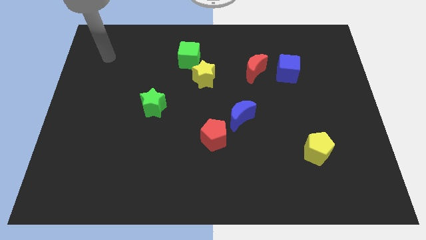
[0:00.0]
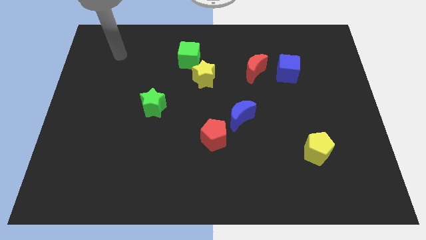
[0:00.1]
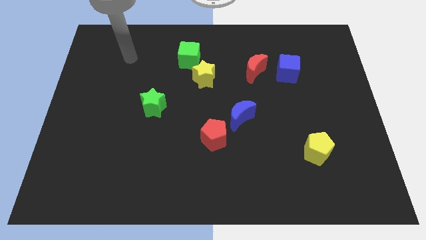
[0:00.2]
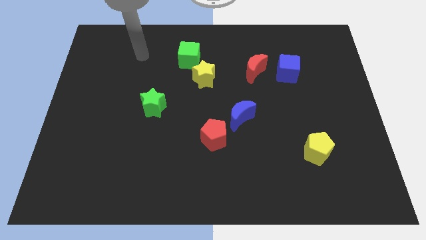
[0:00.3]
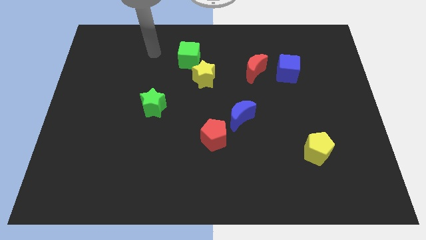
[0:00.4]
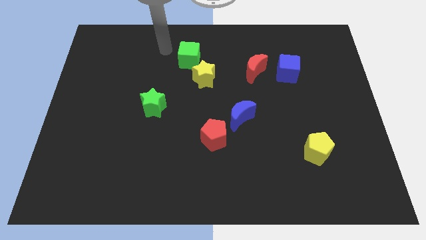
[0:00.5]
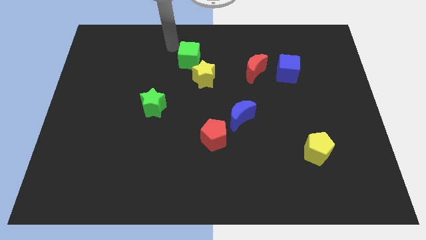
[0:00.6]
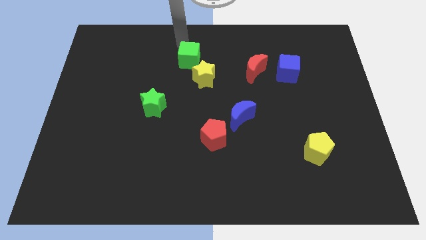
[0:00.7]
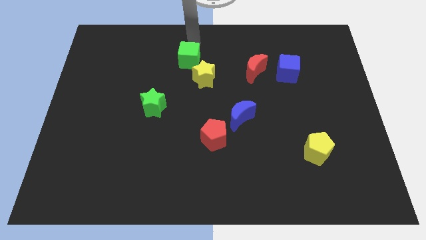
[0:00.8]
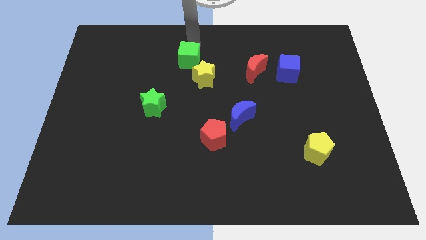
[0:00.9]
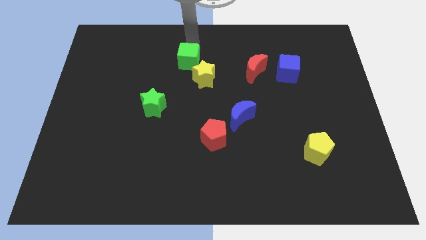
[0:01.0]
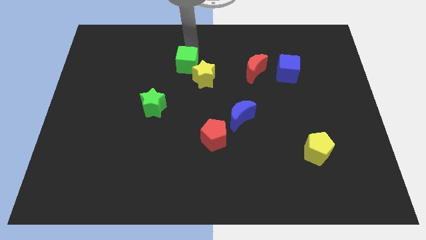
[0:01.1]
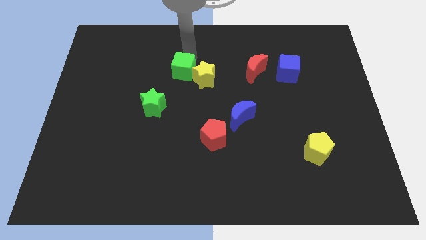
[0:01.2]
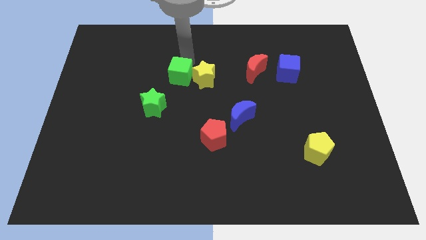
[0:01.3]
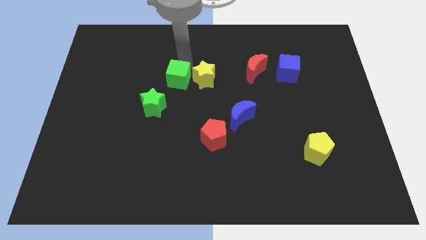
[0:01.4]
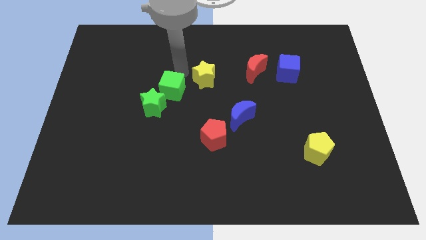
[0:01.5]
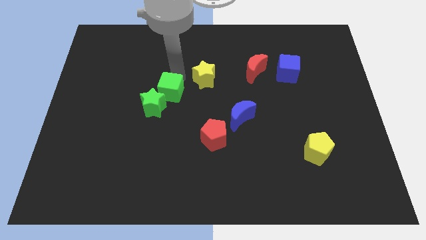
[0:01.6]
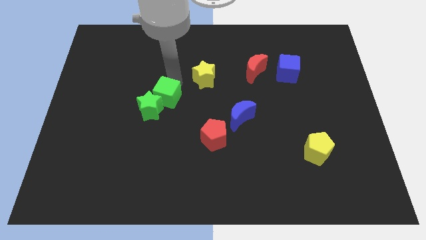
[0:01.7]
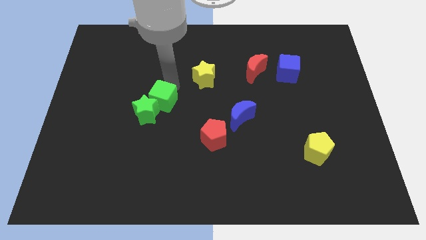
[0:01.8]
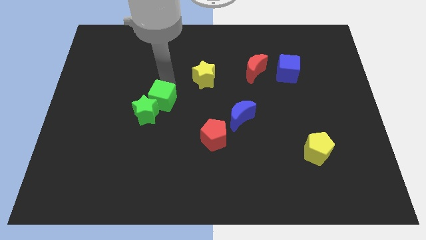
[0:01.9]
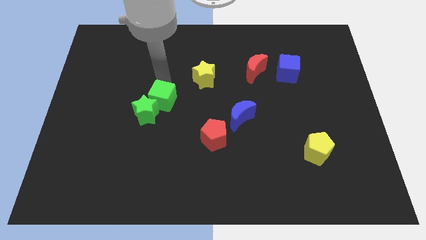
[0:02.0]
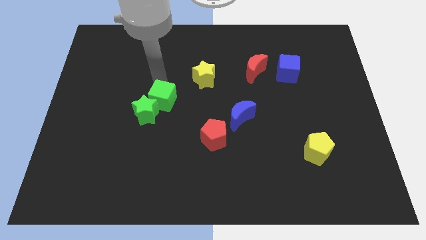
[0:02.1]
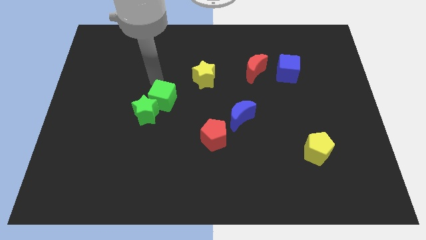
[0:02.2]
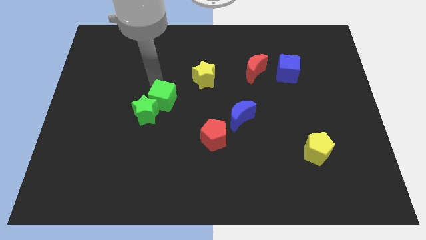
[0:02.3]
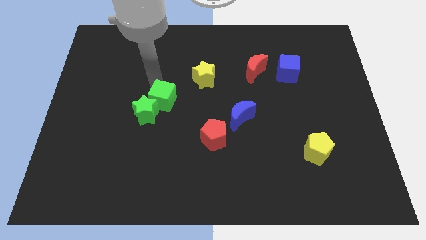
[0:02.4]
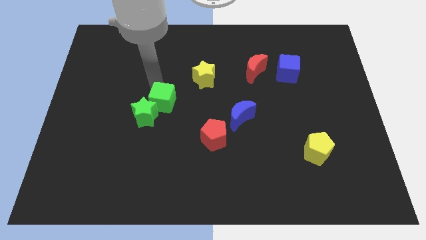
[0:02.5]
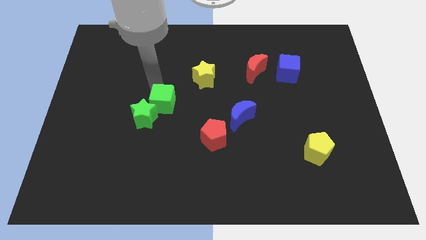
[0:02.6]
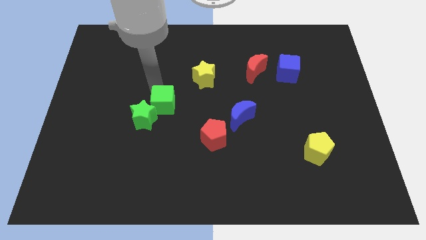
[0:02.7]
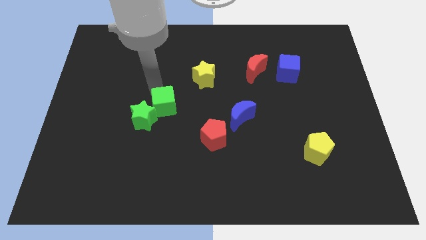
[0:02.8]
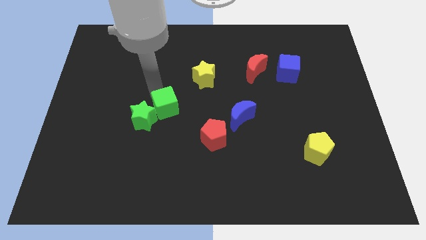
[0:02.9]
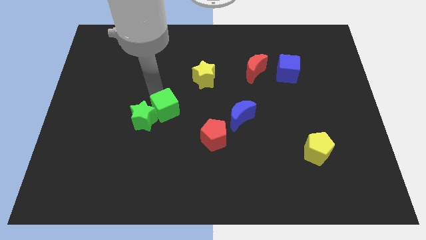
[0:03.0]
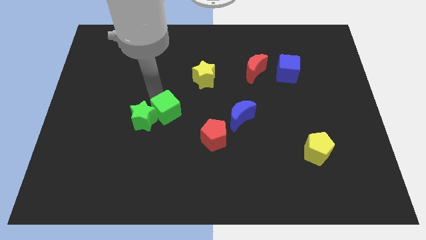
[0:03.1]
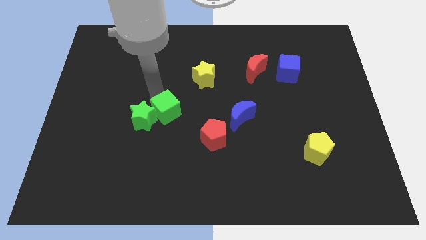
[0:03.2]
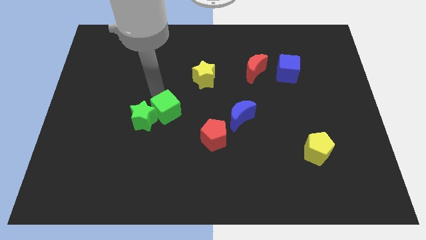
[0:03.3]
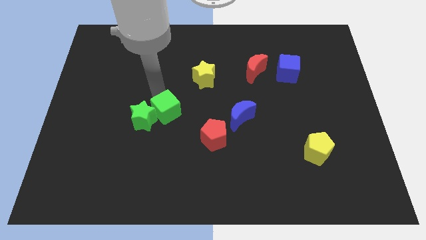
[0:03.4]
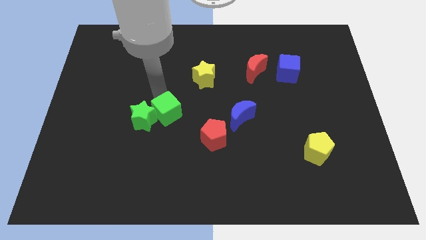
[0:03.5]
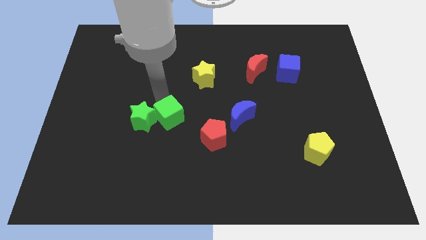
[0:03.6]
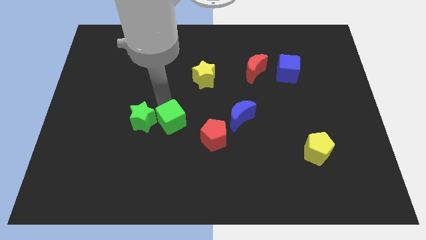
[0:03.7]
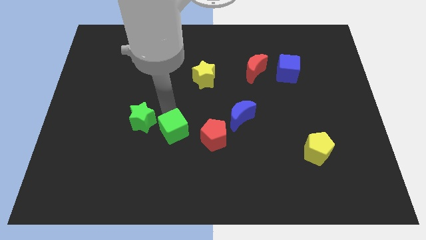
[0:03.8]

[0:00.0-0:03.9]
move the green cube downwards

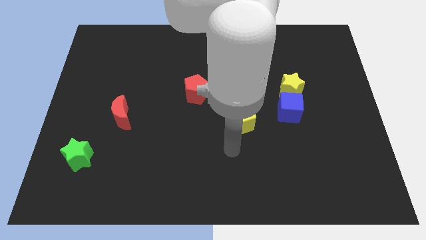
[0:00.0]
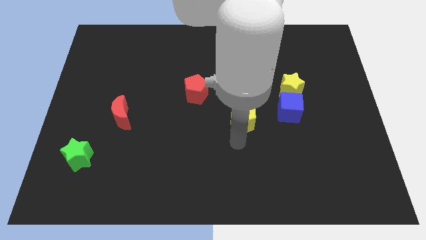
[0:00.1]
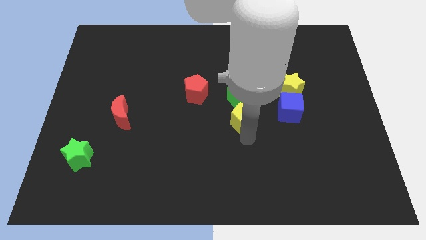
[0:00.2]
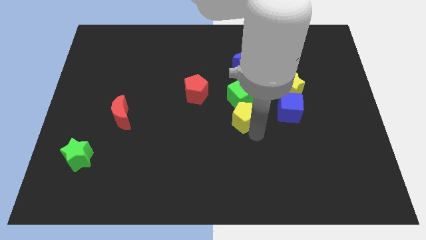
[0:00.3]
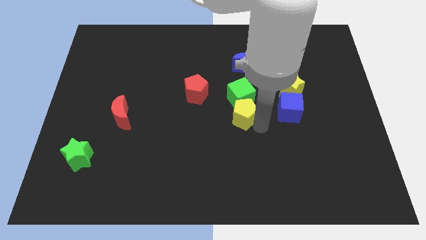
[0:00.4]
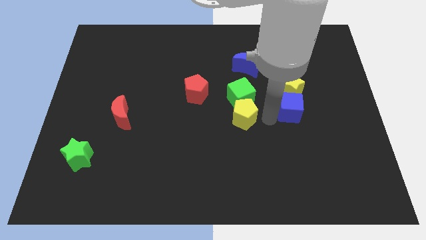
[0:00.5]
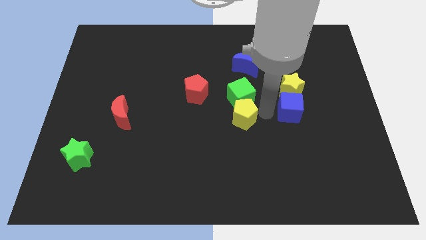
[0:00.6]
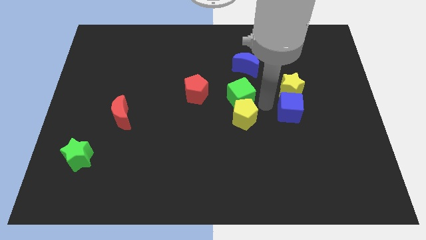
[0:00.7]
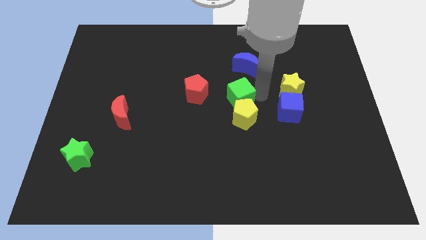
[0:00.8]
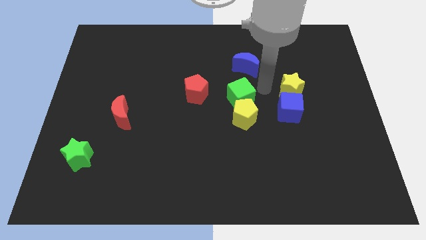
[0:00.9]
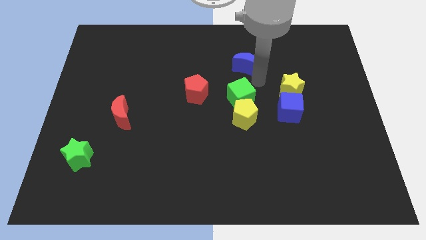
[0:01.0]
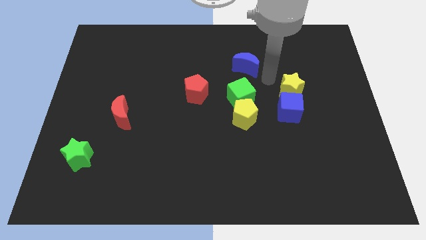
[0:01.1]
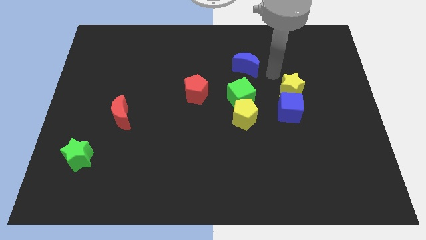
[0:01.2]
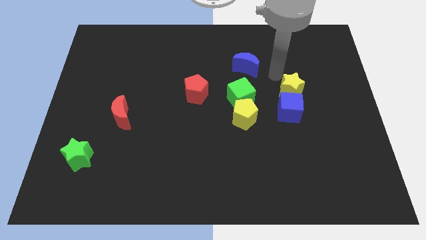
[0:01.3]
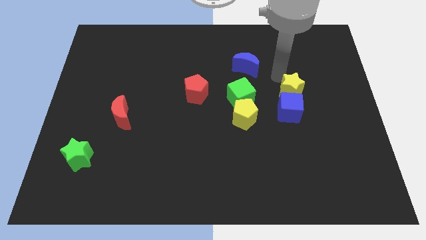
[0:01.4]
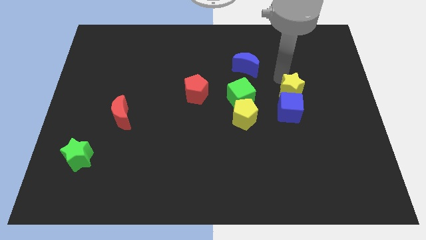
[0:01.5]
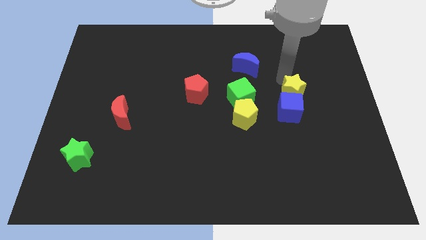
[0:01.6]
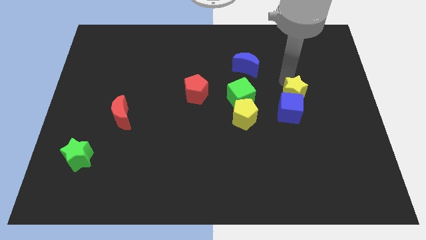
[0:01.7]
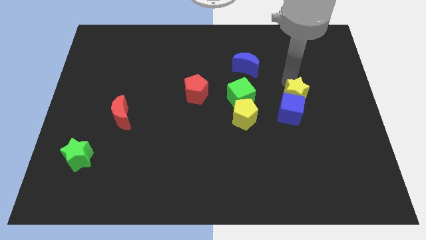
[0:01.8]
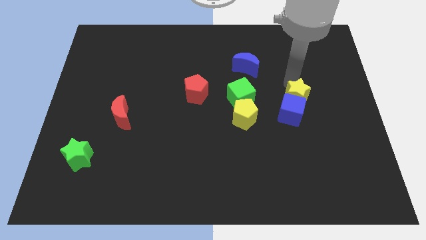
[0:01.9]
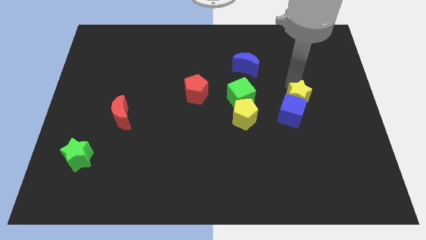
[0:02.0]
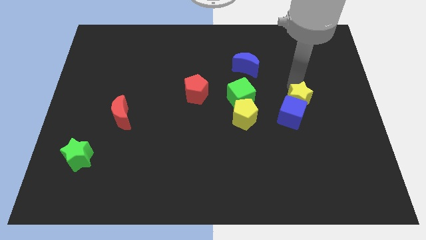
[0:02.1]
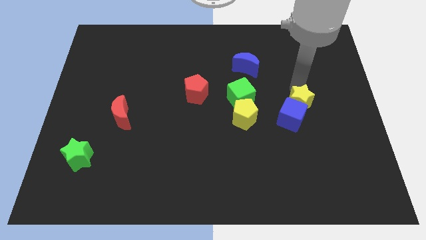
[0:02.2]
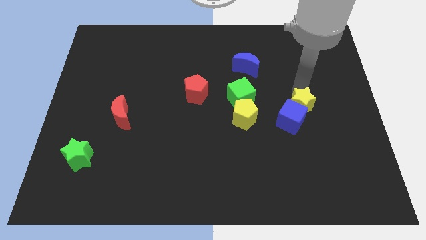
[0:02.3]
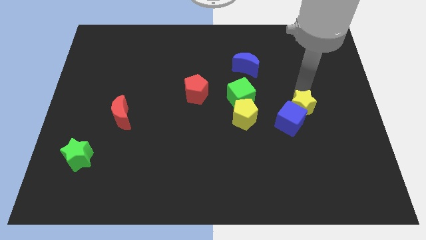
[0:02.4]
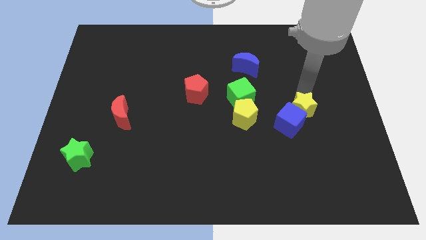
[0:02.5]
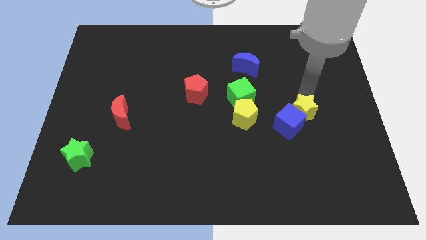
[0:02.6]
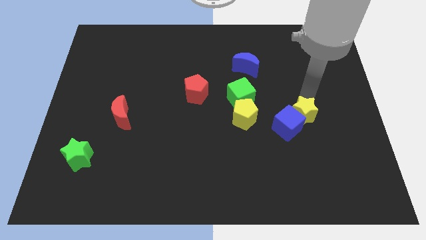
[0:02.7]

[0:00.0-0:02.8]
slightly slide the yellow star down

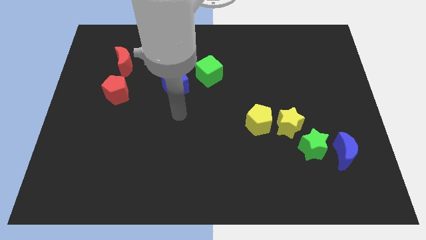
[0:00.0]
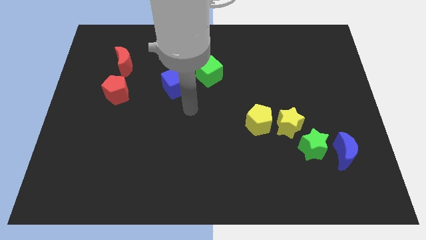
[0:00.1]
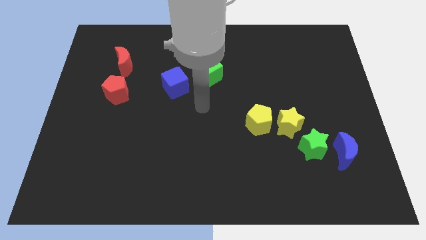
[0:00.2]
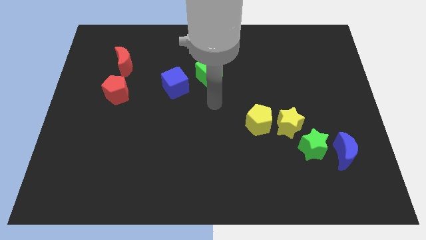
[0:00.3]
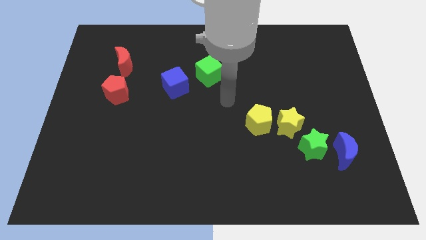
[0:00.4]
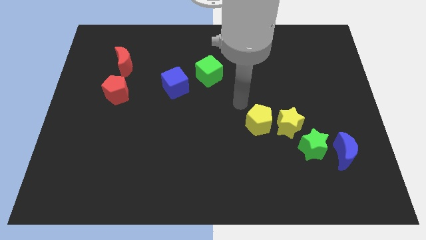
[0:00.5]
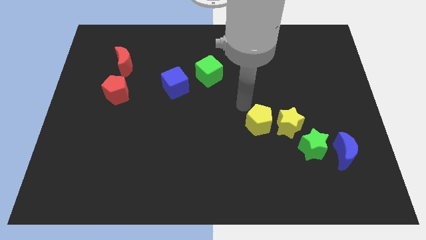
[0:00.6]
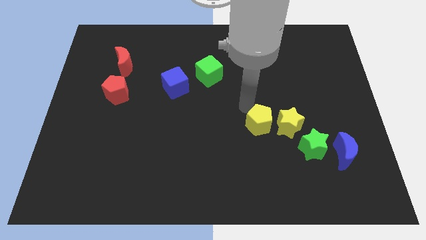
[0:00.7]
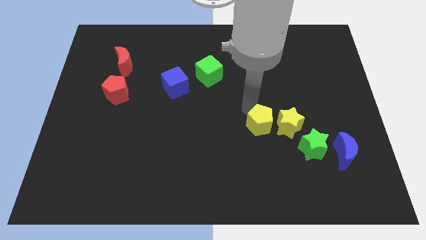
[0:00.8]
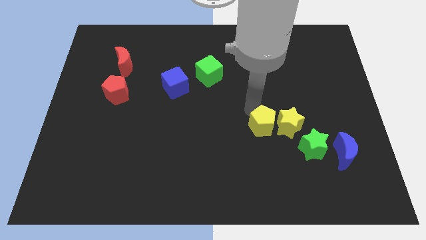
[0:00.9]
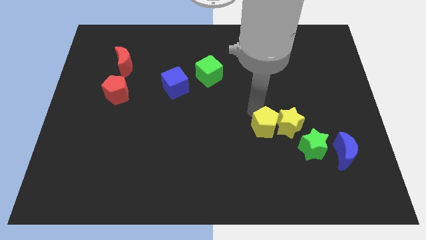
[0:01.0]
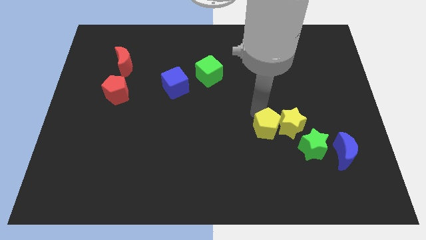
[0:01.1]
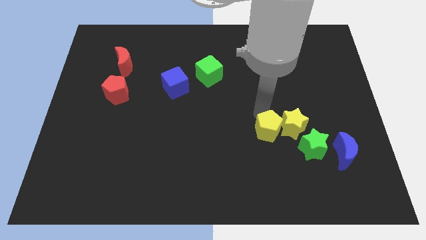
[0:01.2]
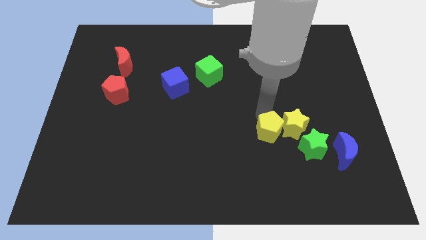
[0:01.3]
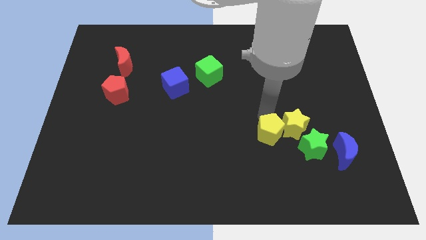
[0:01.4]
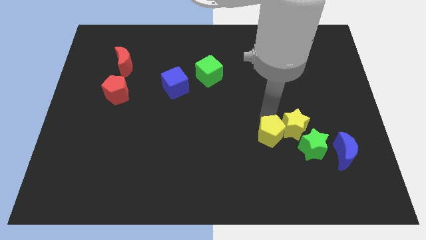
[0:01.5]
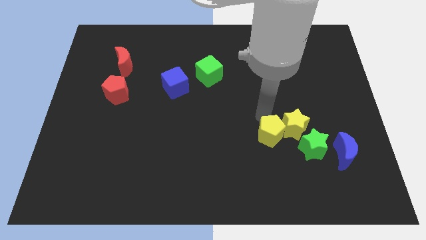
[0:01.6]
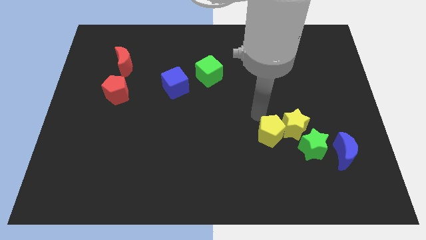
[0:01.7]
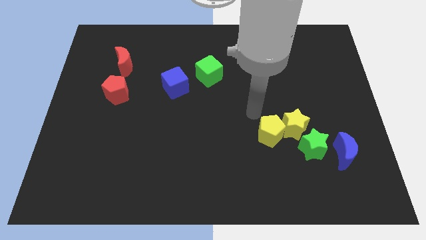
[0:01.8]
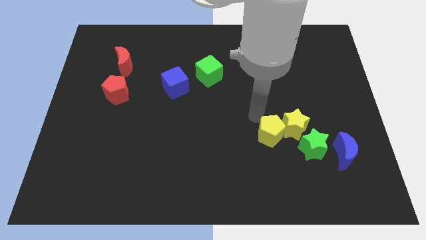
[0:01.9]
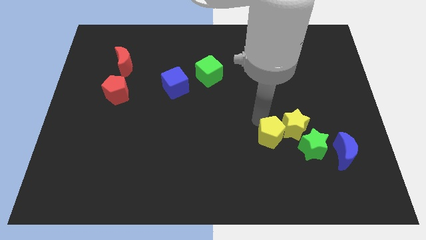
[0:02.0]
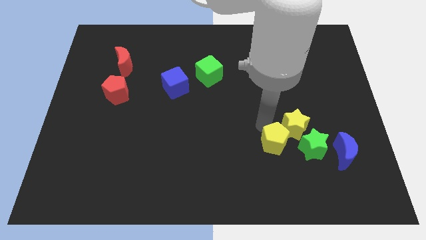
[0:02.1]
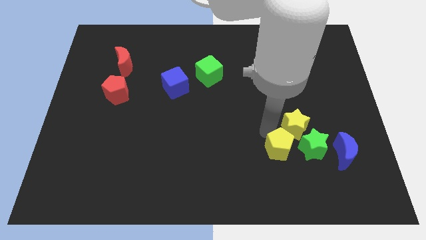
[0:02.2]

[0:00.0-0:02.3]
move the yellow pentagon a little bit down and then to the right
